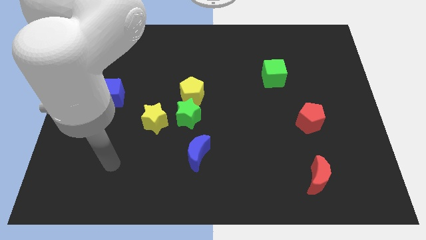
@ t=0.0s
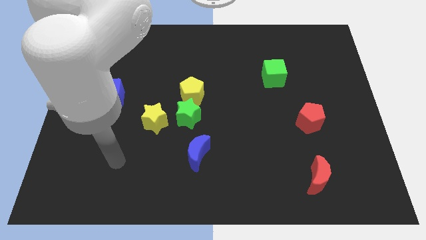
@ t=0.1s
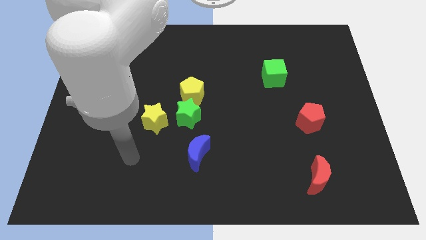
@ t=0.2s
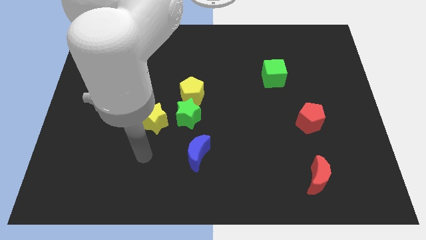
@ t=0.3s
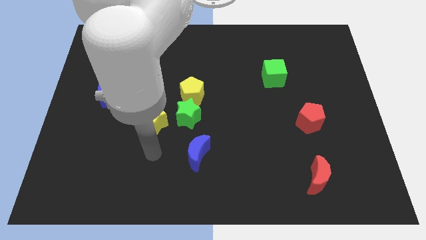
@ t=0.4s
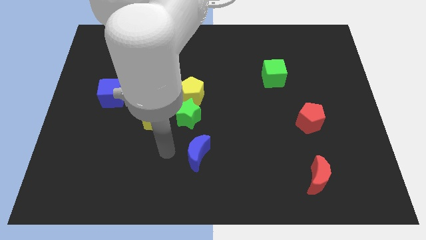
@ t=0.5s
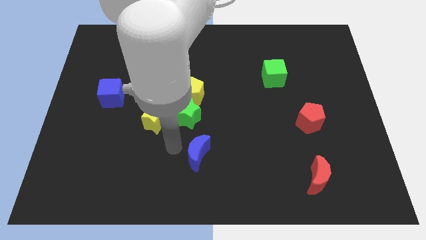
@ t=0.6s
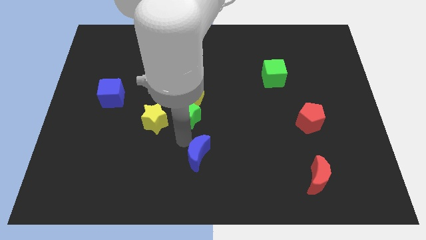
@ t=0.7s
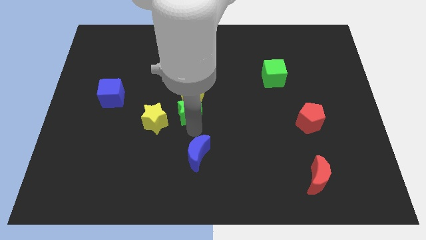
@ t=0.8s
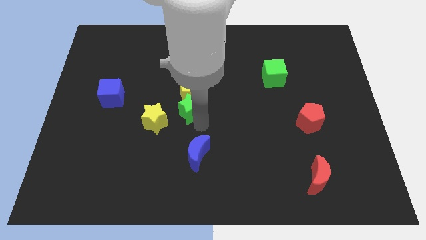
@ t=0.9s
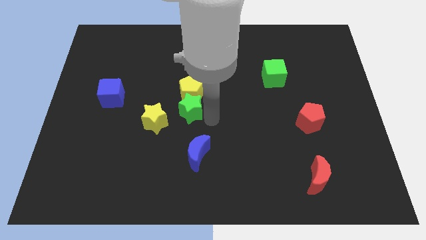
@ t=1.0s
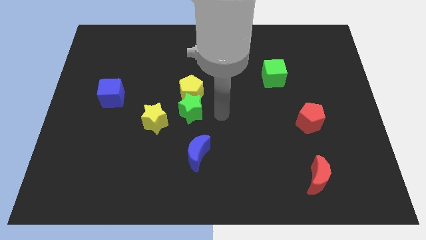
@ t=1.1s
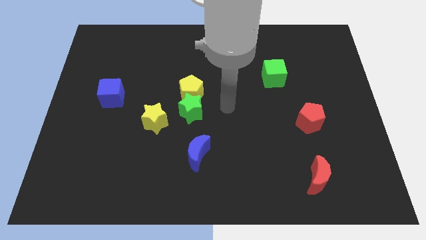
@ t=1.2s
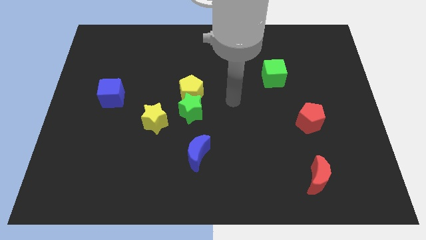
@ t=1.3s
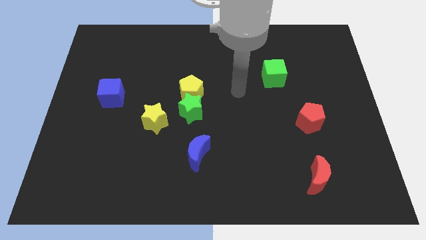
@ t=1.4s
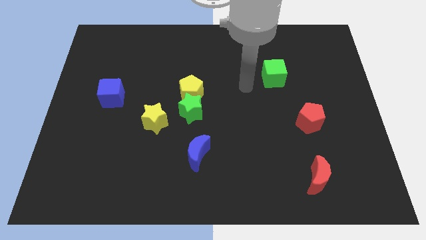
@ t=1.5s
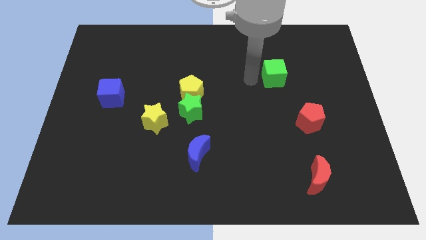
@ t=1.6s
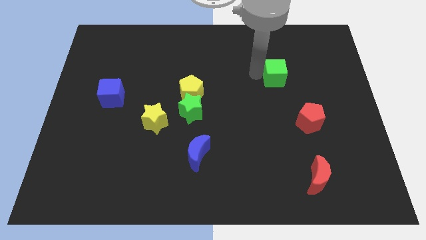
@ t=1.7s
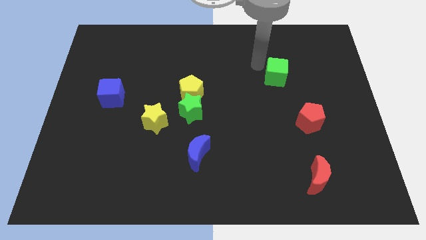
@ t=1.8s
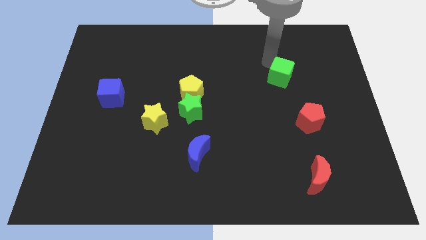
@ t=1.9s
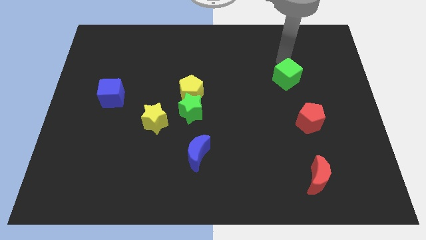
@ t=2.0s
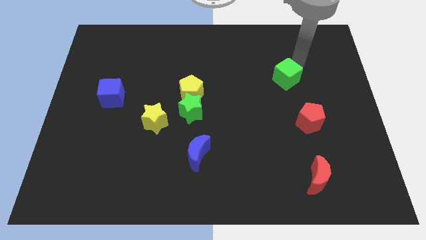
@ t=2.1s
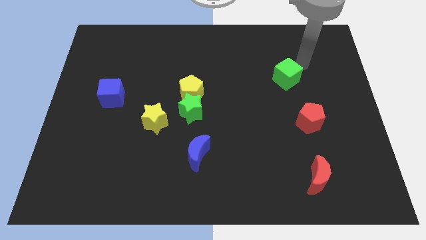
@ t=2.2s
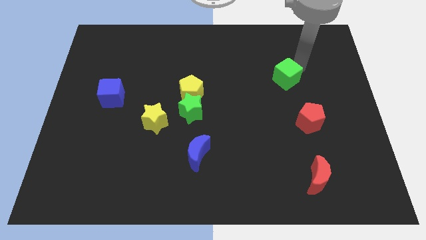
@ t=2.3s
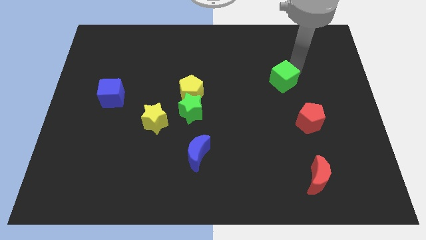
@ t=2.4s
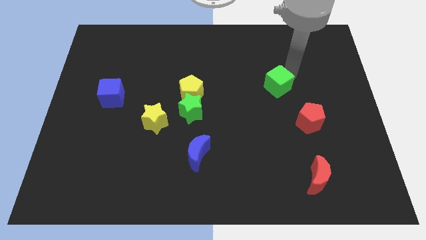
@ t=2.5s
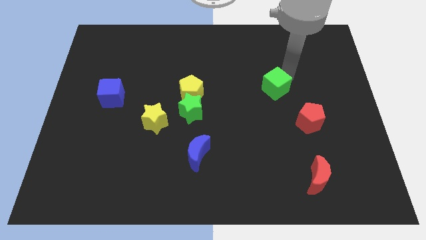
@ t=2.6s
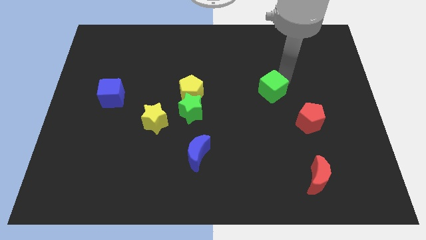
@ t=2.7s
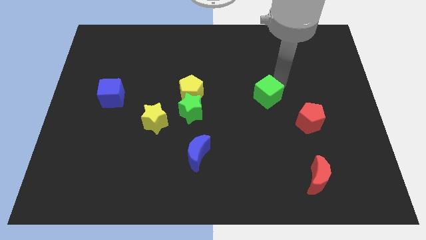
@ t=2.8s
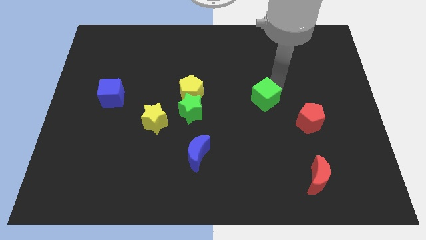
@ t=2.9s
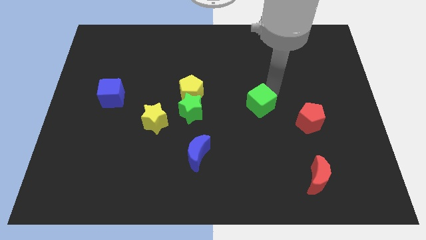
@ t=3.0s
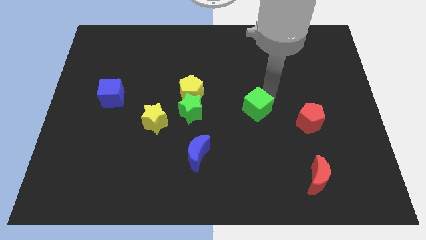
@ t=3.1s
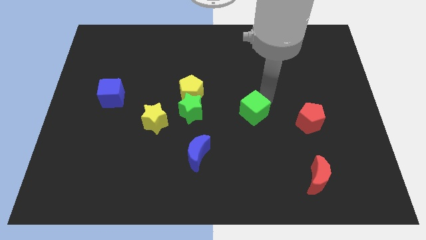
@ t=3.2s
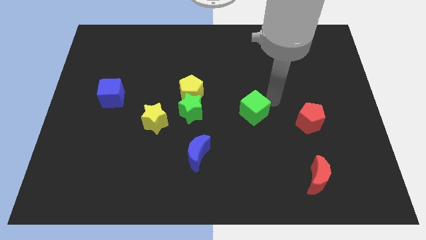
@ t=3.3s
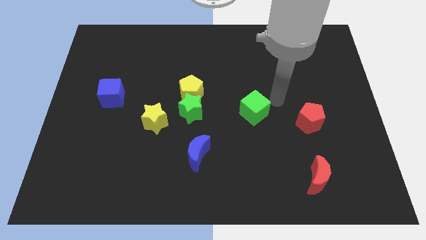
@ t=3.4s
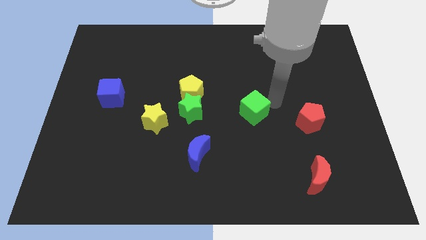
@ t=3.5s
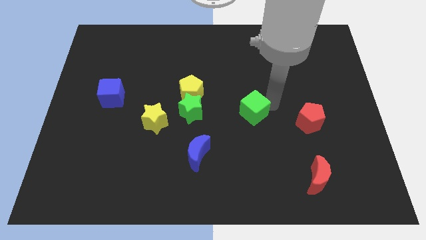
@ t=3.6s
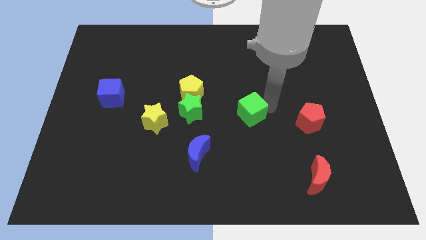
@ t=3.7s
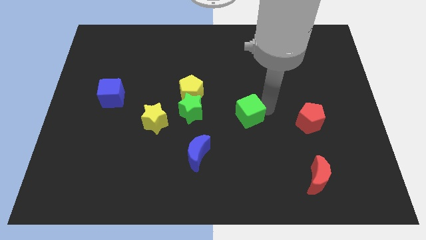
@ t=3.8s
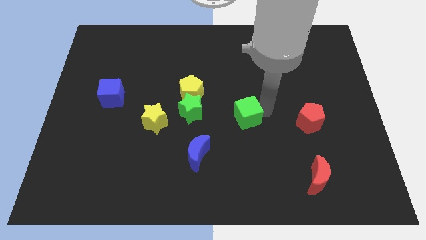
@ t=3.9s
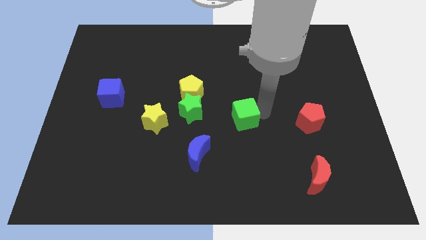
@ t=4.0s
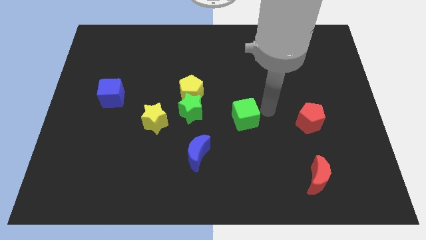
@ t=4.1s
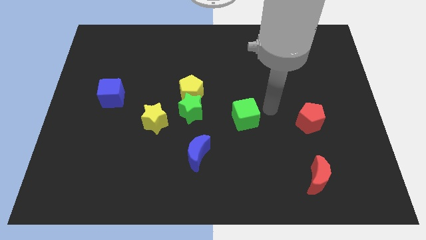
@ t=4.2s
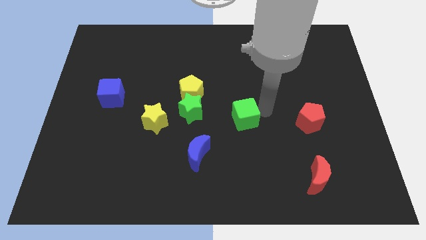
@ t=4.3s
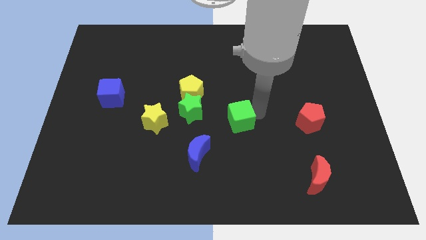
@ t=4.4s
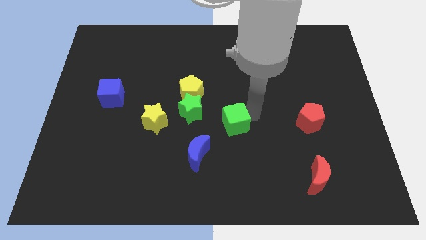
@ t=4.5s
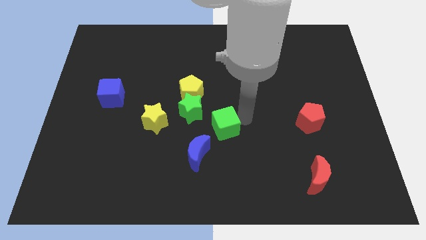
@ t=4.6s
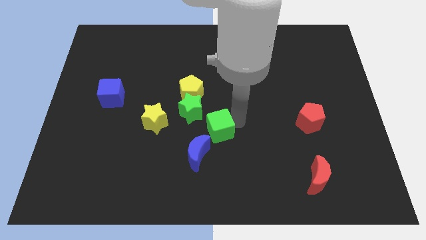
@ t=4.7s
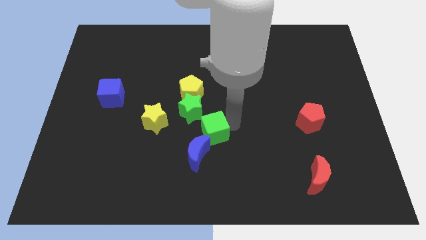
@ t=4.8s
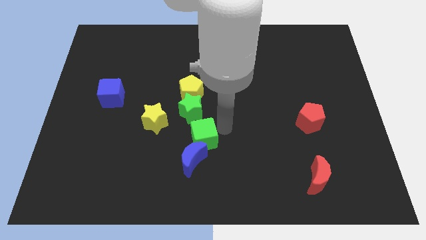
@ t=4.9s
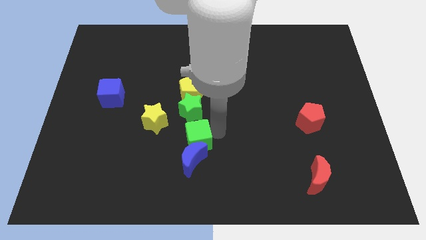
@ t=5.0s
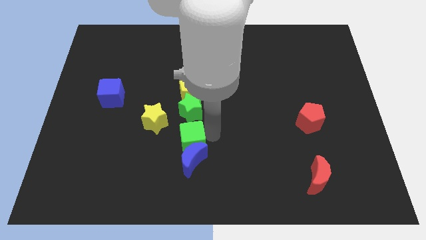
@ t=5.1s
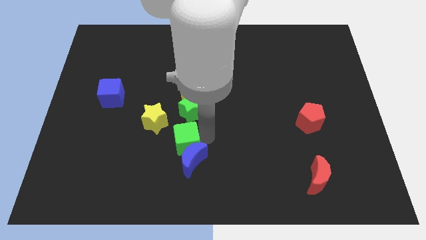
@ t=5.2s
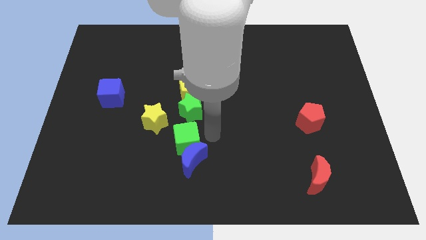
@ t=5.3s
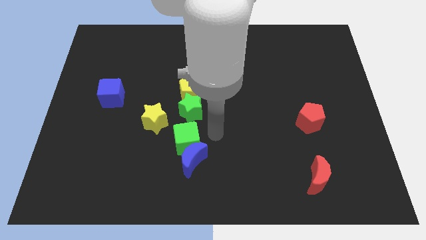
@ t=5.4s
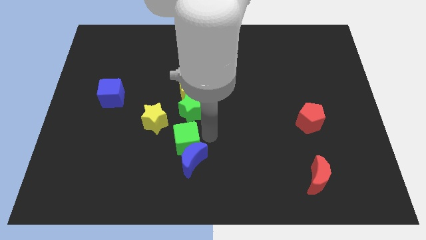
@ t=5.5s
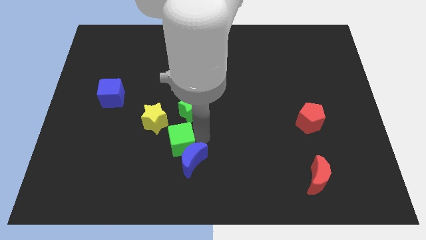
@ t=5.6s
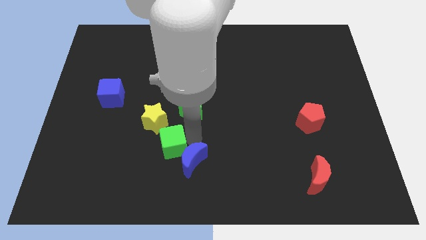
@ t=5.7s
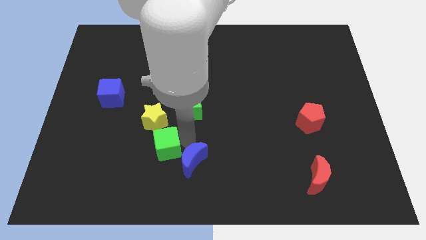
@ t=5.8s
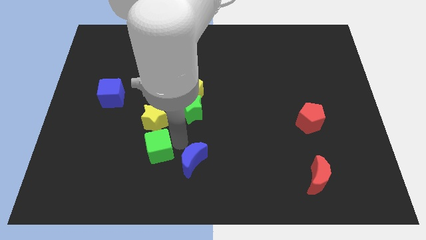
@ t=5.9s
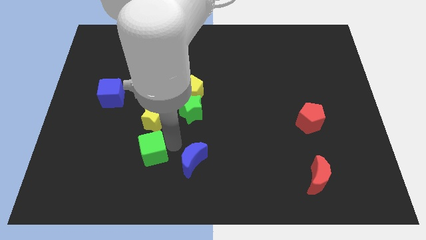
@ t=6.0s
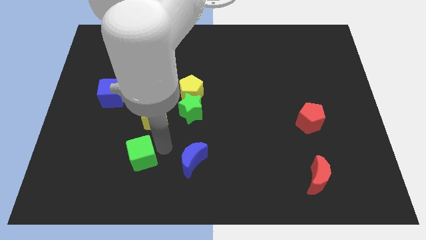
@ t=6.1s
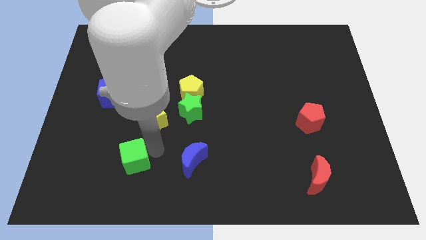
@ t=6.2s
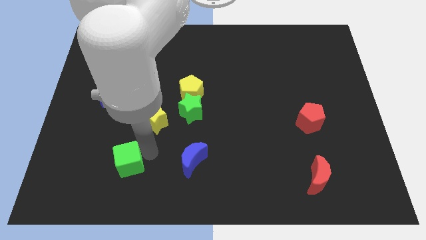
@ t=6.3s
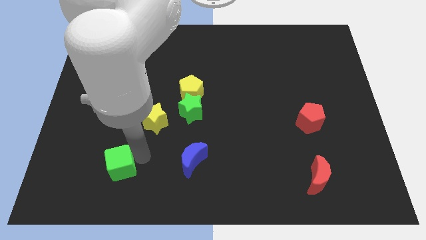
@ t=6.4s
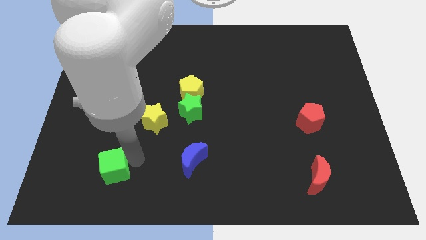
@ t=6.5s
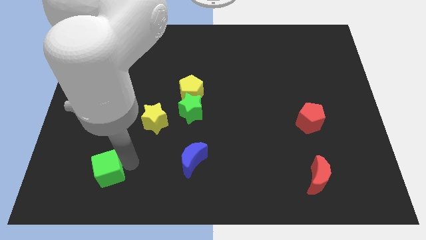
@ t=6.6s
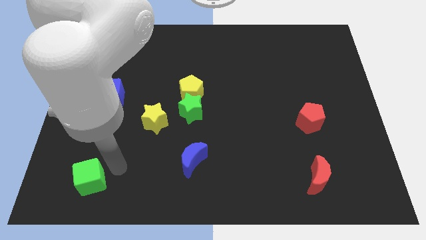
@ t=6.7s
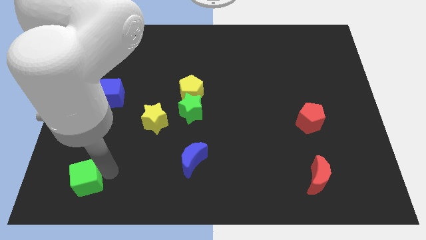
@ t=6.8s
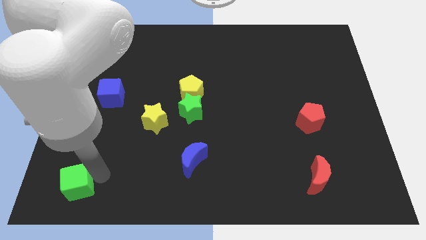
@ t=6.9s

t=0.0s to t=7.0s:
slide the green cube to the bottom left

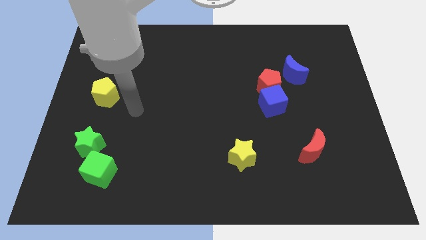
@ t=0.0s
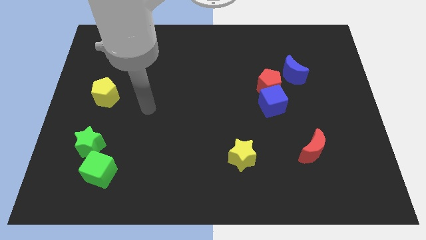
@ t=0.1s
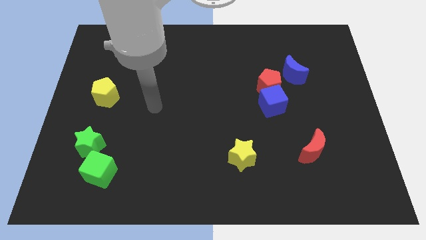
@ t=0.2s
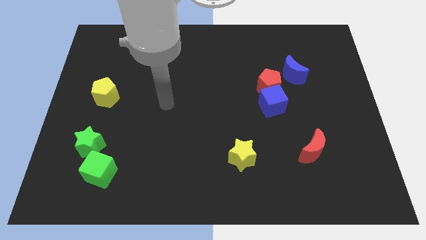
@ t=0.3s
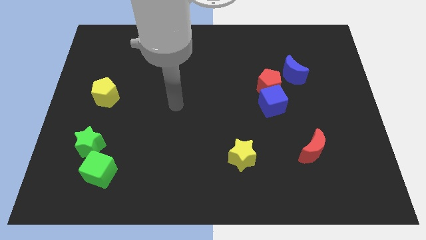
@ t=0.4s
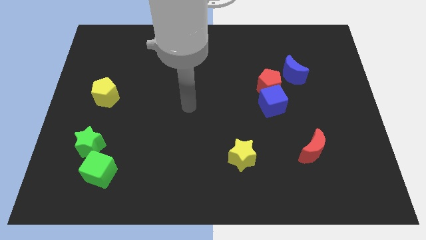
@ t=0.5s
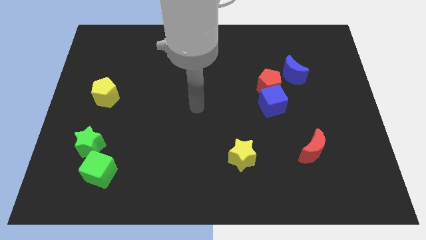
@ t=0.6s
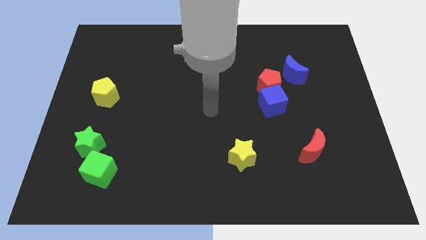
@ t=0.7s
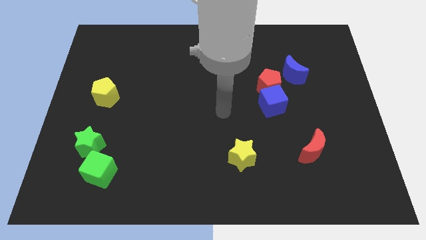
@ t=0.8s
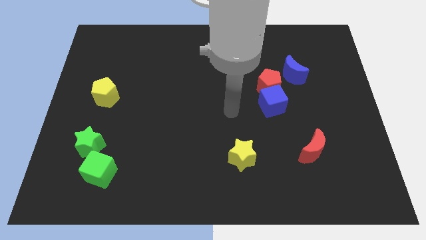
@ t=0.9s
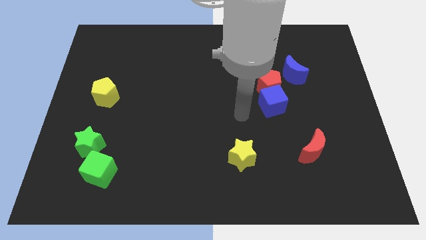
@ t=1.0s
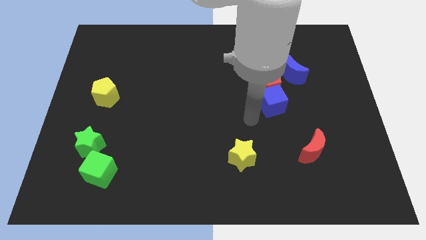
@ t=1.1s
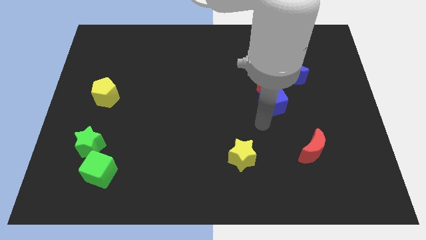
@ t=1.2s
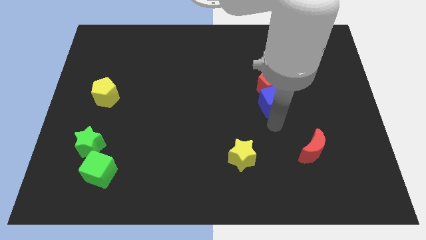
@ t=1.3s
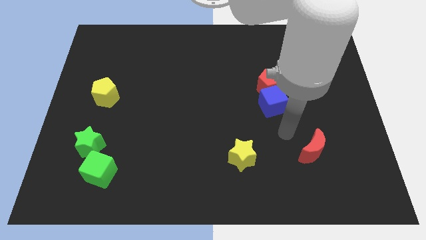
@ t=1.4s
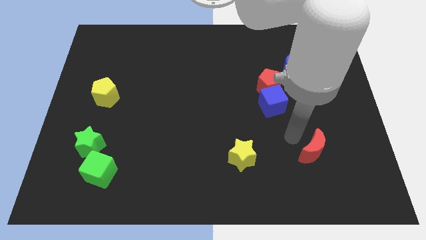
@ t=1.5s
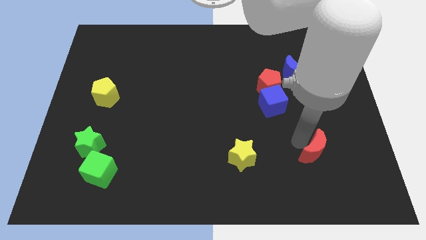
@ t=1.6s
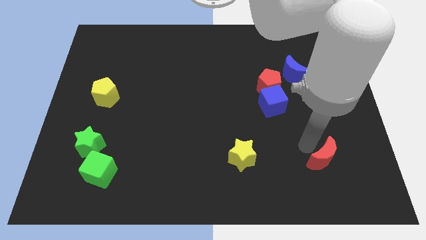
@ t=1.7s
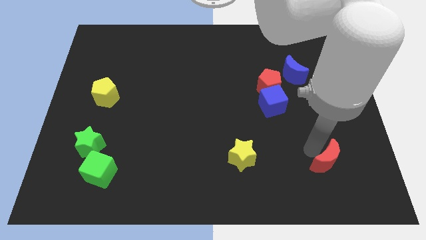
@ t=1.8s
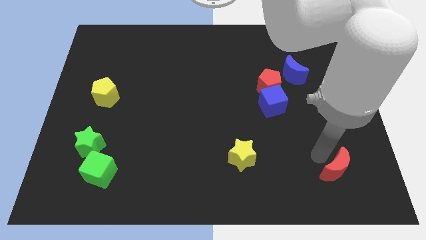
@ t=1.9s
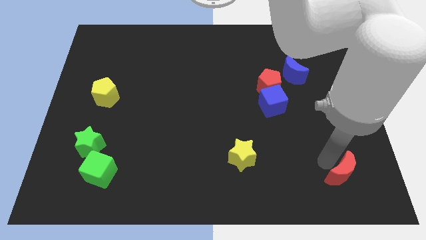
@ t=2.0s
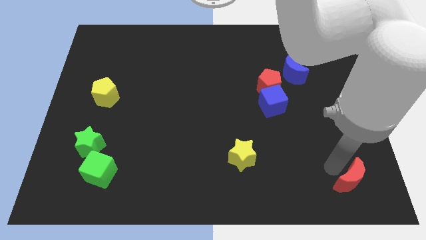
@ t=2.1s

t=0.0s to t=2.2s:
move the red moon to the lower right corner
